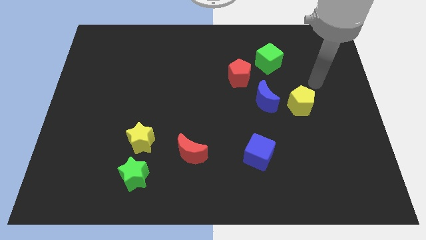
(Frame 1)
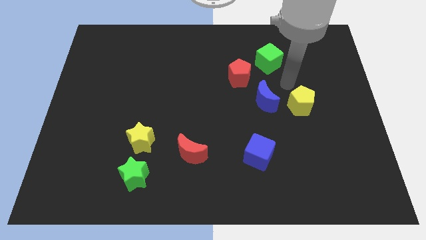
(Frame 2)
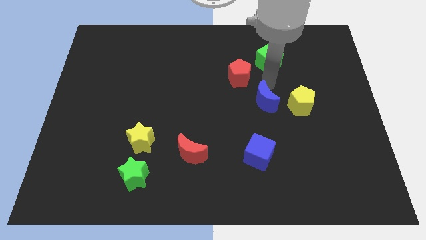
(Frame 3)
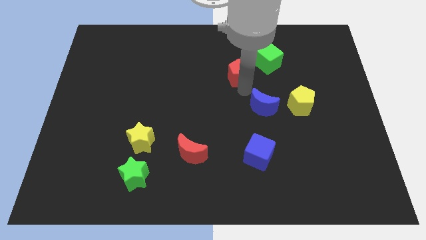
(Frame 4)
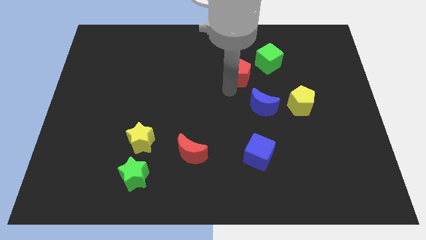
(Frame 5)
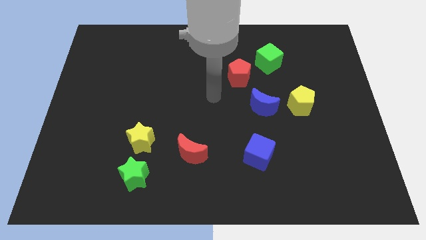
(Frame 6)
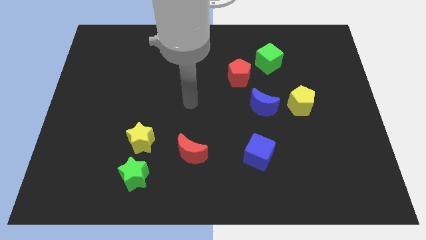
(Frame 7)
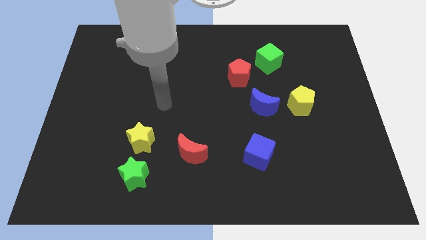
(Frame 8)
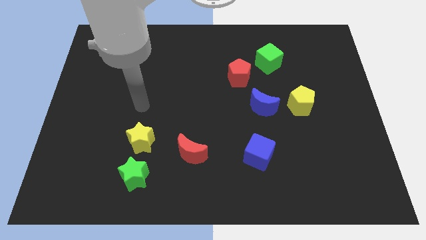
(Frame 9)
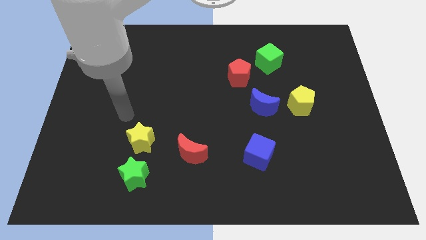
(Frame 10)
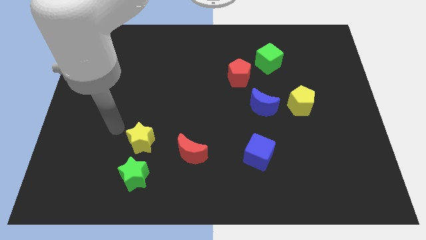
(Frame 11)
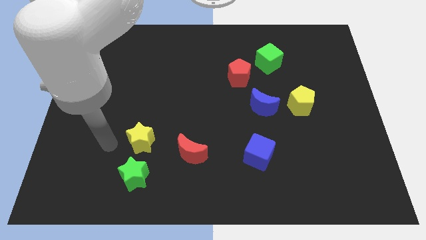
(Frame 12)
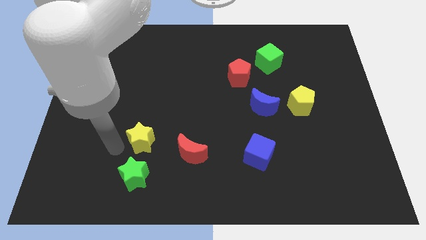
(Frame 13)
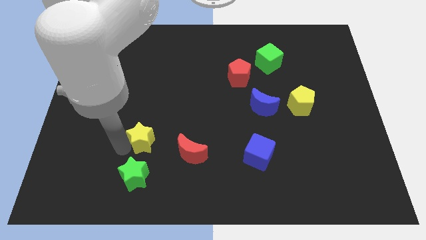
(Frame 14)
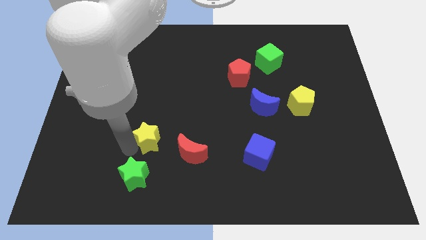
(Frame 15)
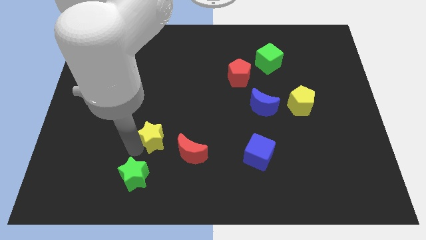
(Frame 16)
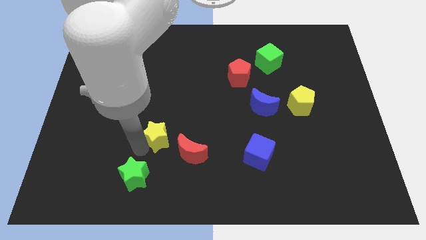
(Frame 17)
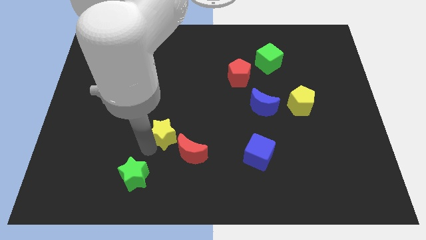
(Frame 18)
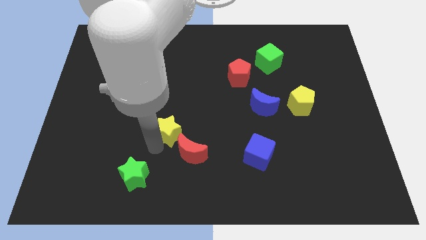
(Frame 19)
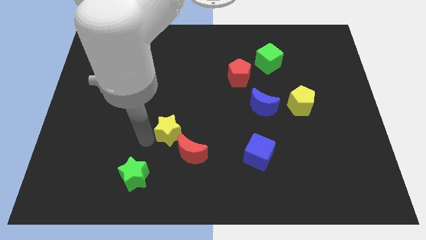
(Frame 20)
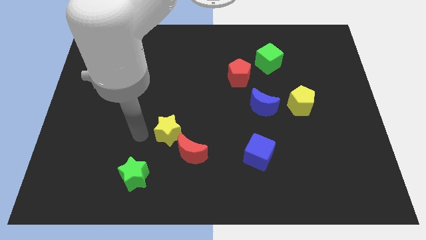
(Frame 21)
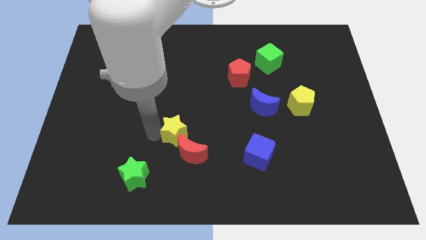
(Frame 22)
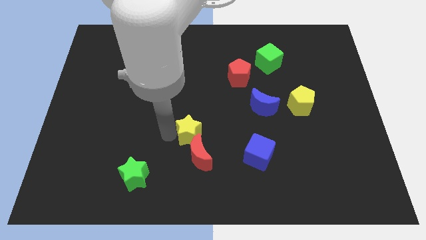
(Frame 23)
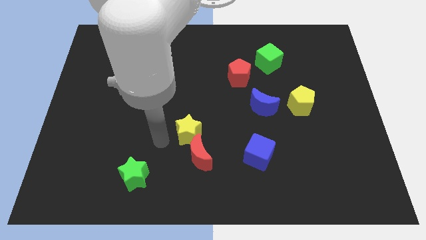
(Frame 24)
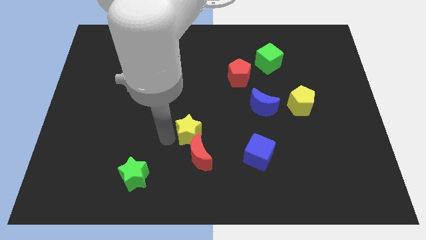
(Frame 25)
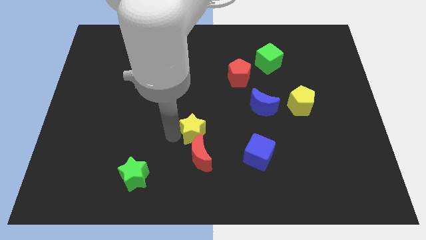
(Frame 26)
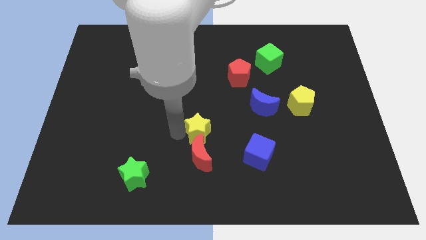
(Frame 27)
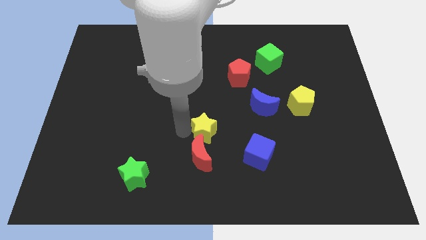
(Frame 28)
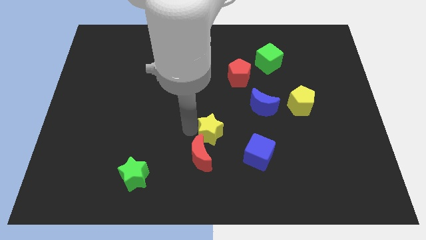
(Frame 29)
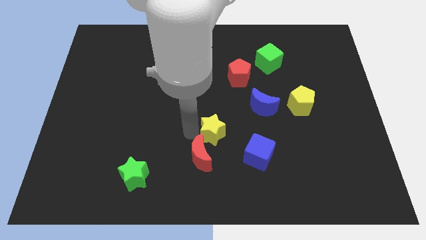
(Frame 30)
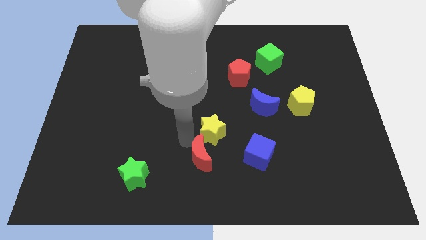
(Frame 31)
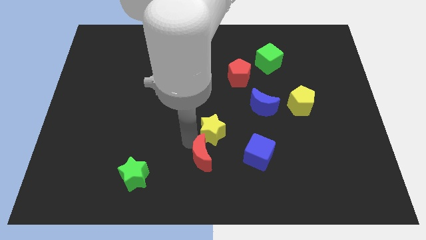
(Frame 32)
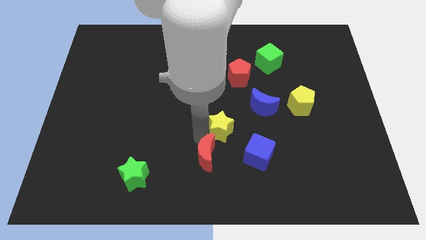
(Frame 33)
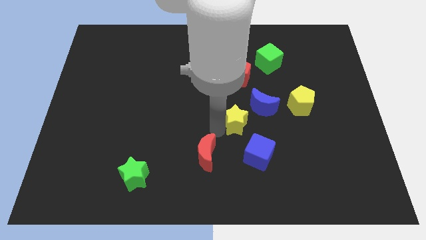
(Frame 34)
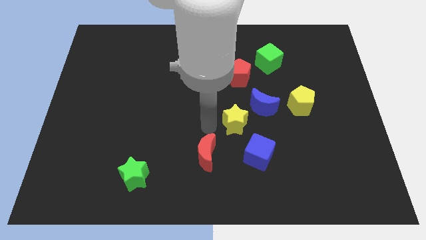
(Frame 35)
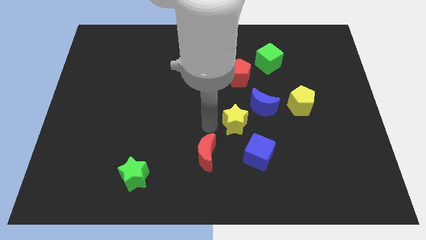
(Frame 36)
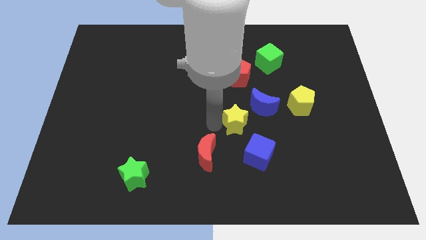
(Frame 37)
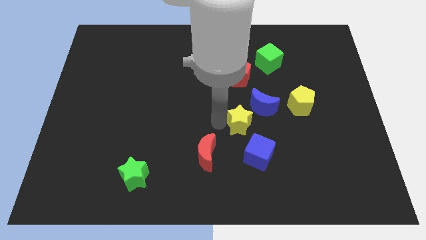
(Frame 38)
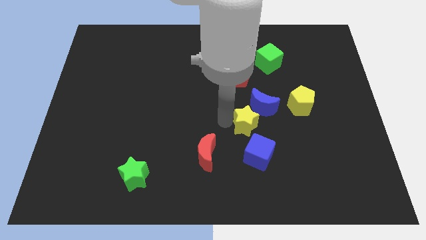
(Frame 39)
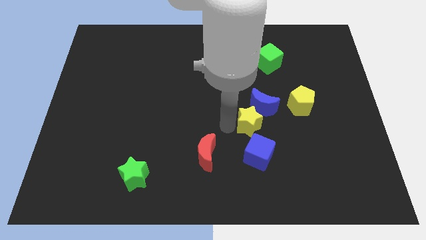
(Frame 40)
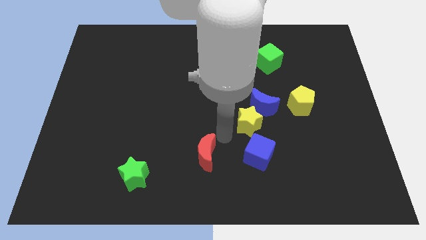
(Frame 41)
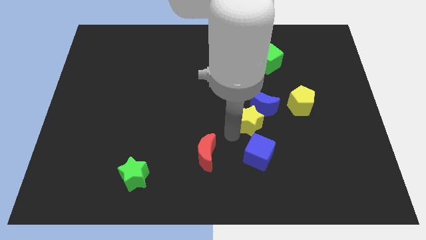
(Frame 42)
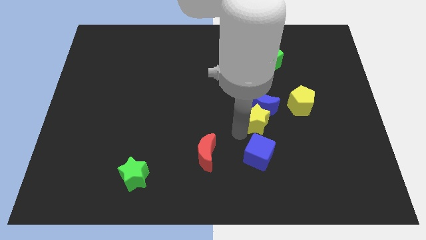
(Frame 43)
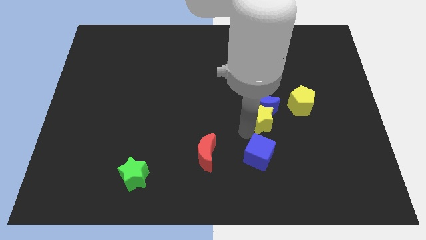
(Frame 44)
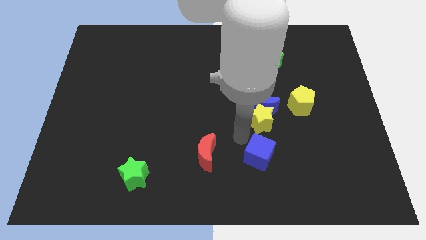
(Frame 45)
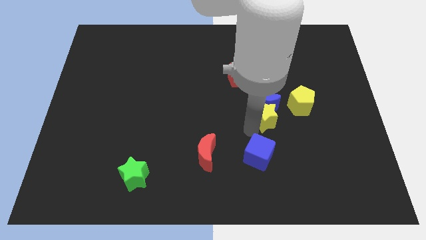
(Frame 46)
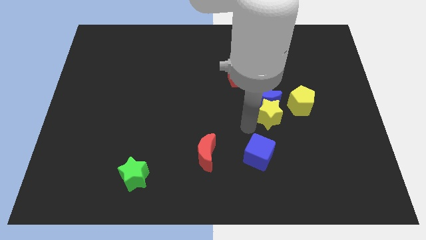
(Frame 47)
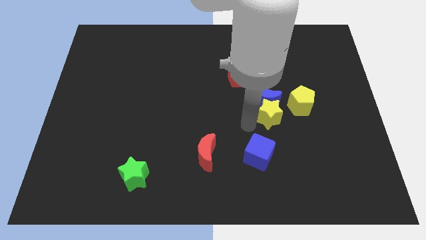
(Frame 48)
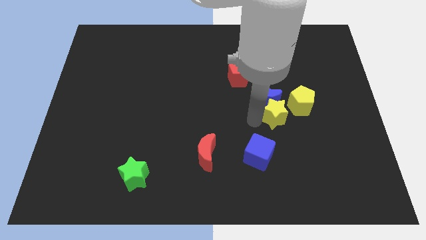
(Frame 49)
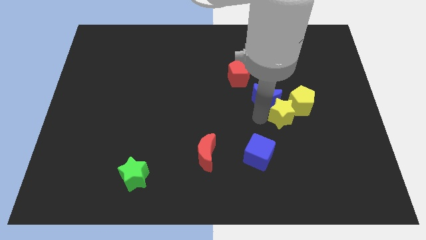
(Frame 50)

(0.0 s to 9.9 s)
put the yellow star close to the yellow pentagon

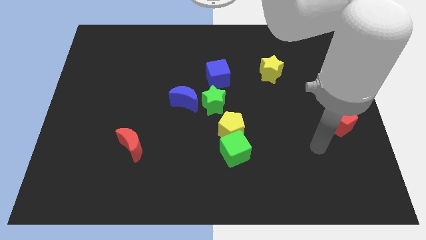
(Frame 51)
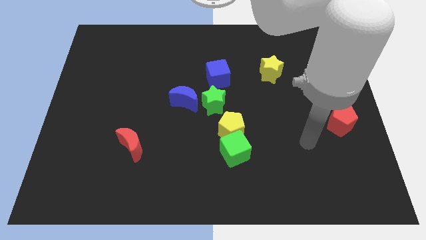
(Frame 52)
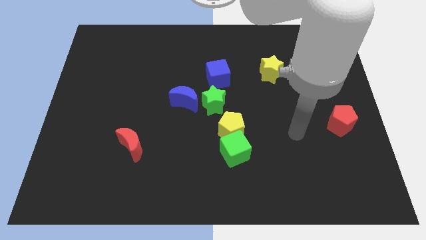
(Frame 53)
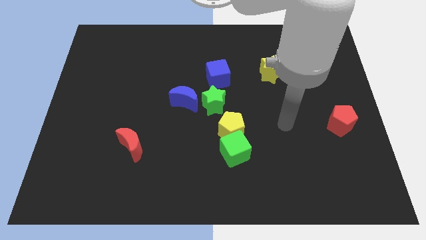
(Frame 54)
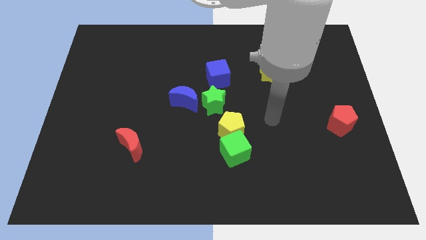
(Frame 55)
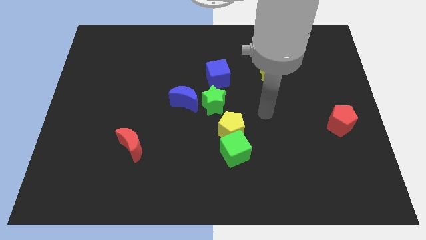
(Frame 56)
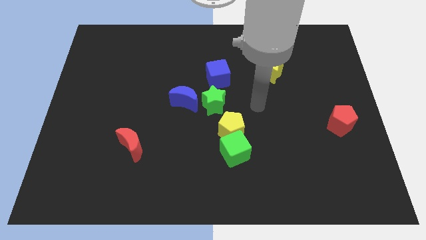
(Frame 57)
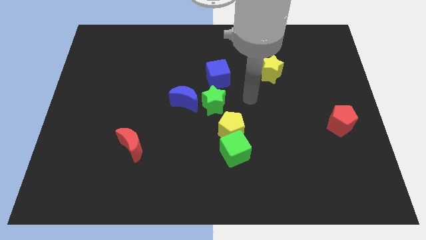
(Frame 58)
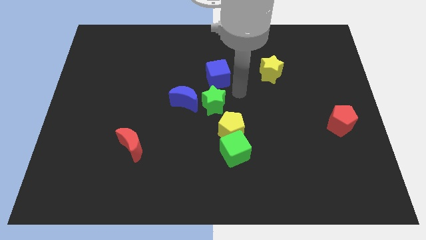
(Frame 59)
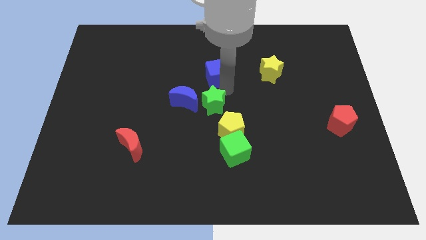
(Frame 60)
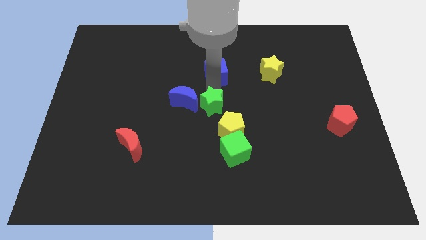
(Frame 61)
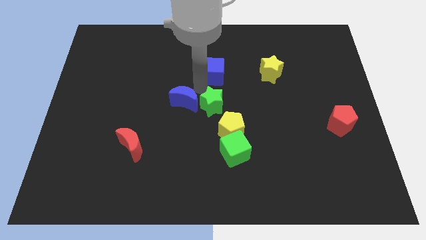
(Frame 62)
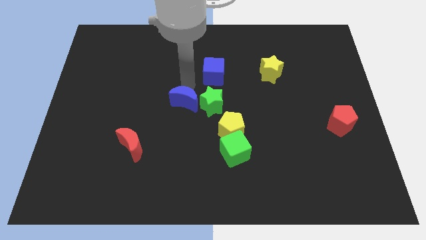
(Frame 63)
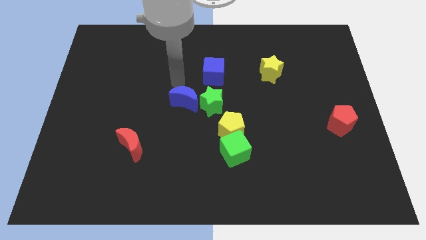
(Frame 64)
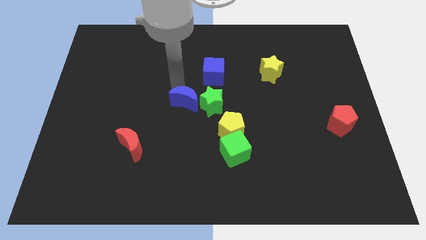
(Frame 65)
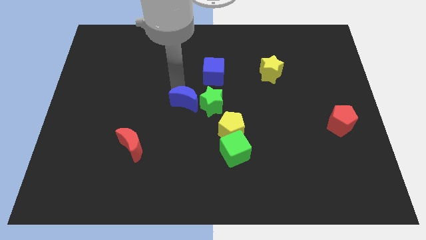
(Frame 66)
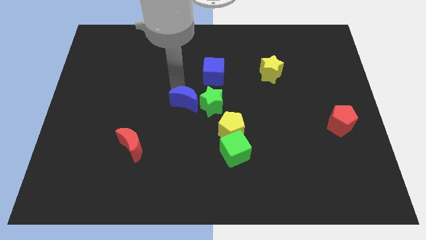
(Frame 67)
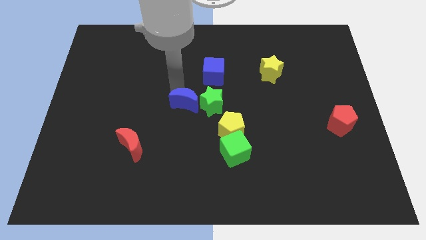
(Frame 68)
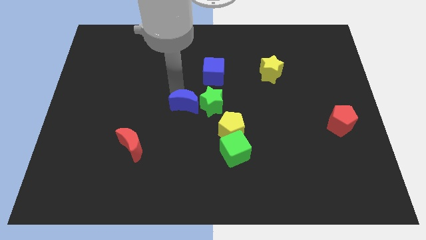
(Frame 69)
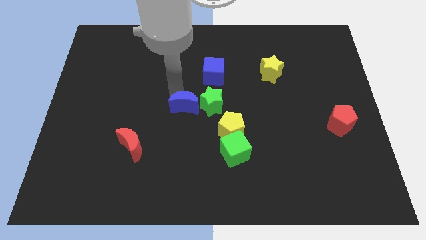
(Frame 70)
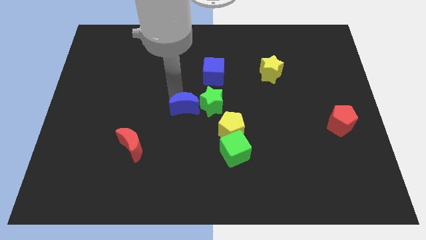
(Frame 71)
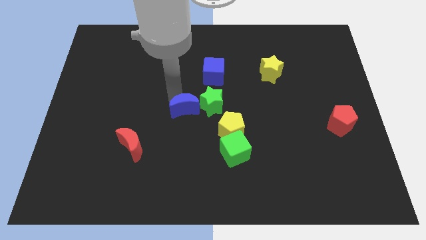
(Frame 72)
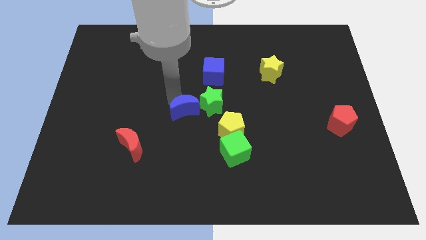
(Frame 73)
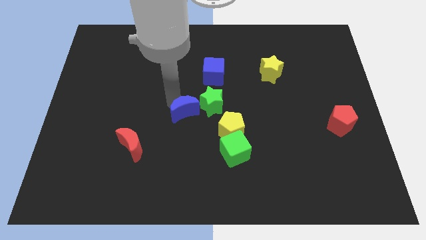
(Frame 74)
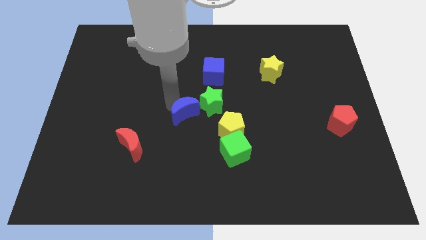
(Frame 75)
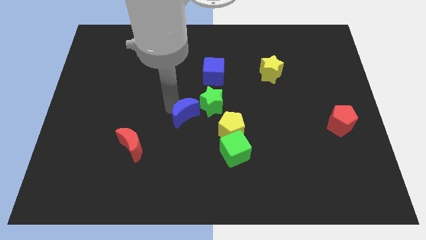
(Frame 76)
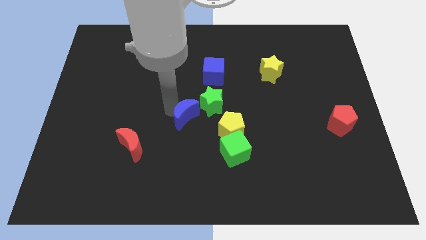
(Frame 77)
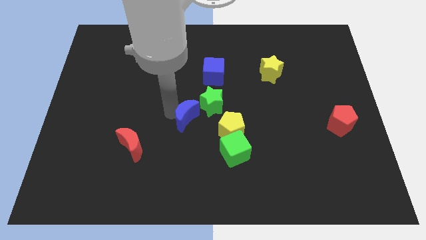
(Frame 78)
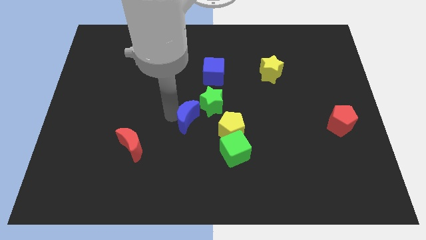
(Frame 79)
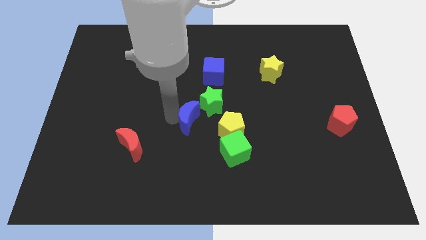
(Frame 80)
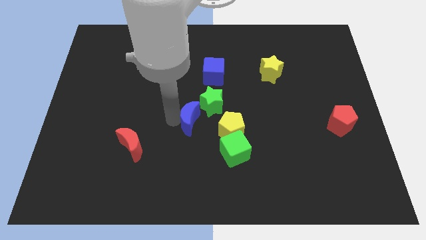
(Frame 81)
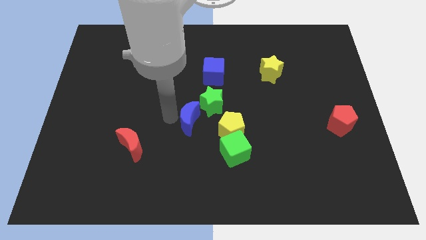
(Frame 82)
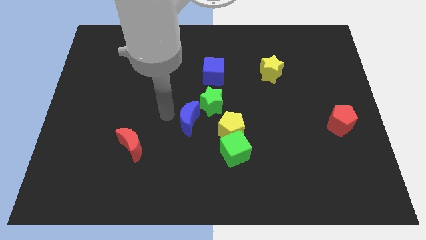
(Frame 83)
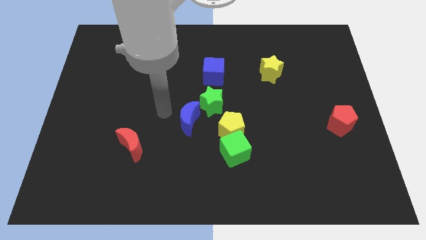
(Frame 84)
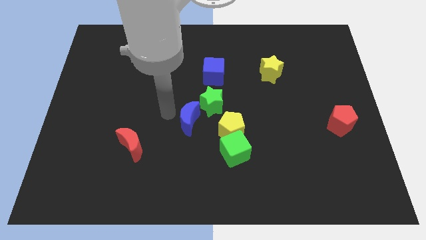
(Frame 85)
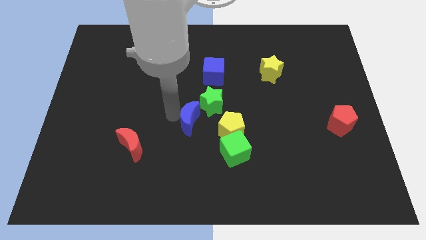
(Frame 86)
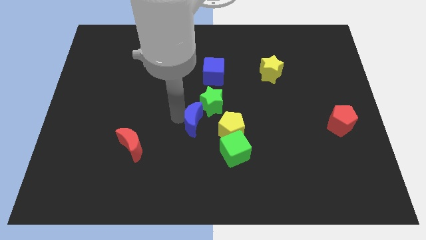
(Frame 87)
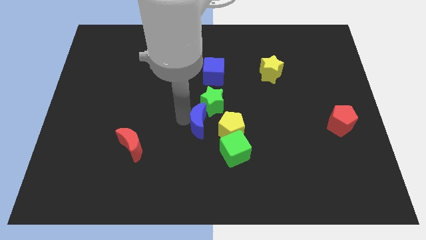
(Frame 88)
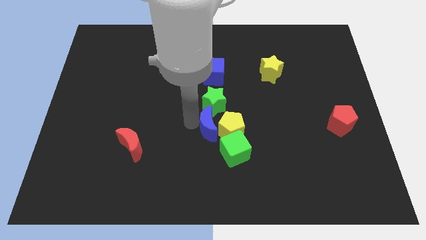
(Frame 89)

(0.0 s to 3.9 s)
move the blue moon to the yellow pentagon
